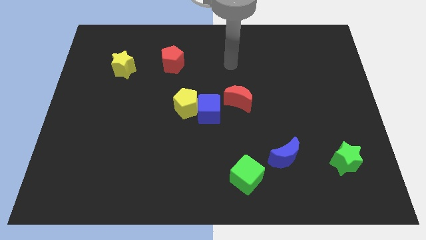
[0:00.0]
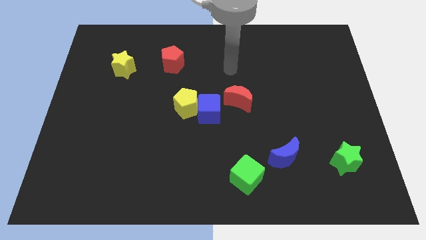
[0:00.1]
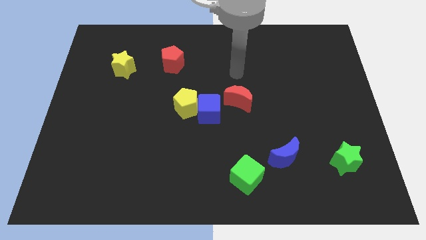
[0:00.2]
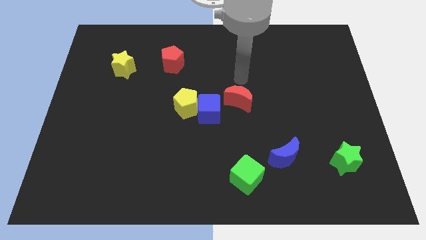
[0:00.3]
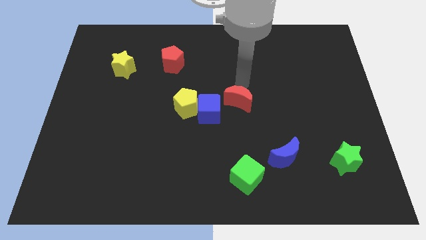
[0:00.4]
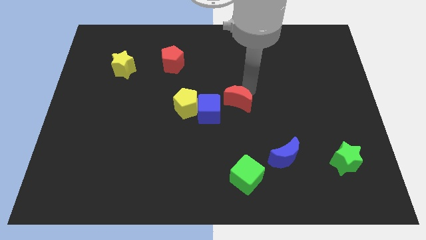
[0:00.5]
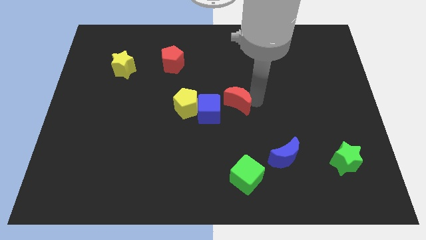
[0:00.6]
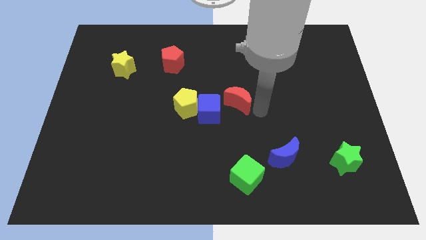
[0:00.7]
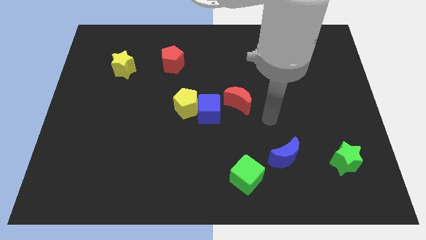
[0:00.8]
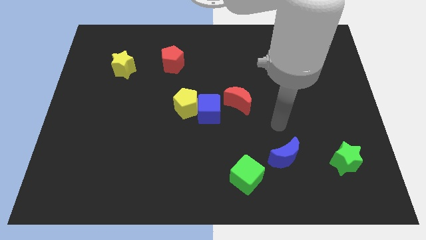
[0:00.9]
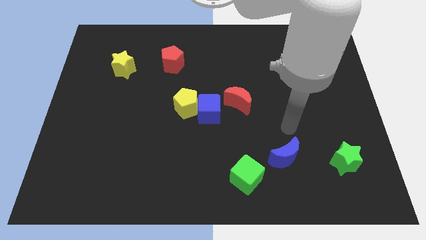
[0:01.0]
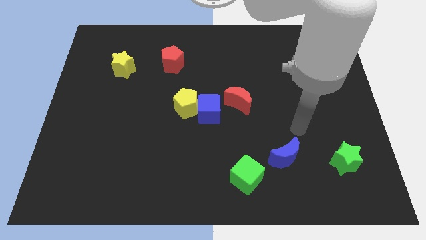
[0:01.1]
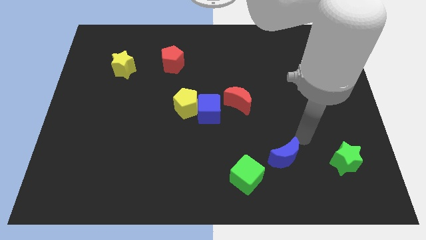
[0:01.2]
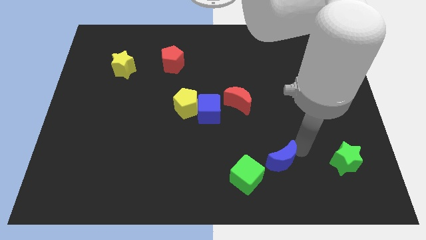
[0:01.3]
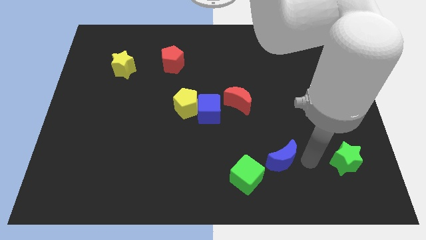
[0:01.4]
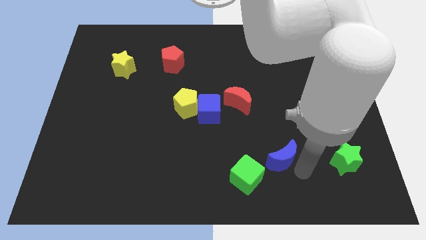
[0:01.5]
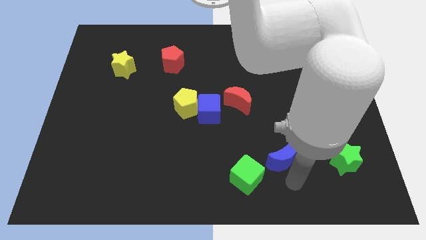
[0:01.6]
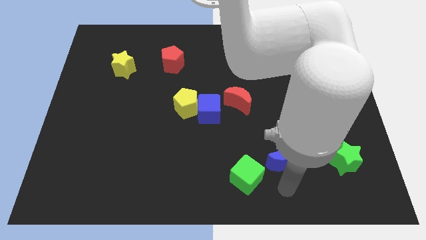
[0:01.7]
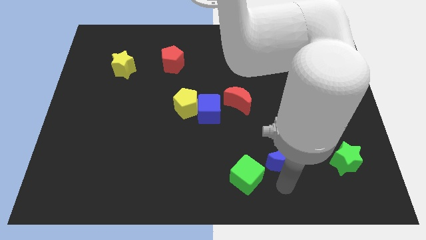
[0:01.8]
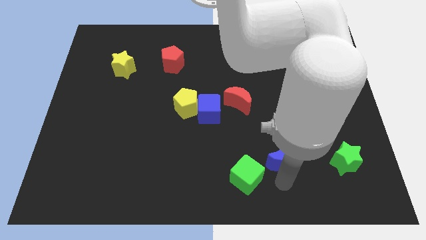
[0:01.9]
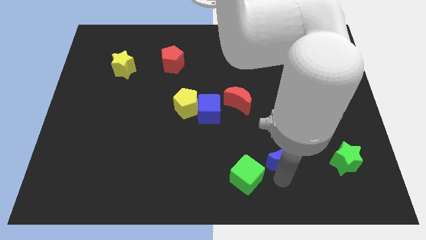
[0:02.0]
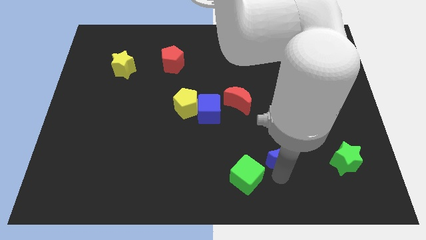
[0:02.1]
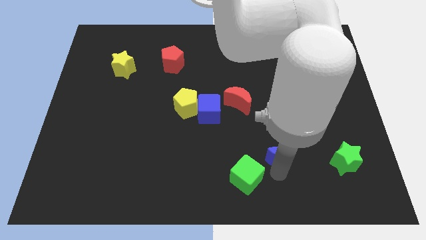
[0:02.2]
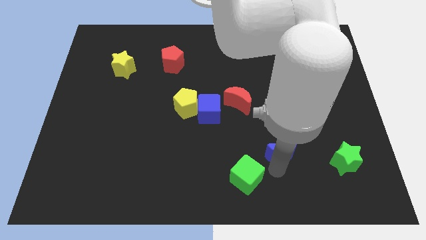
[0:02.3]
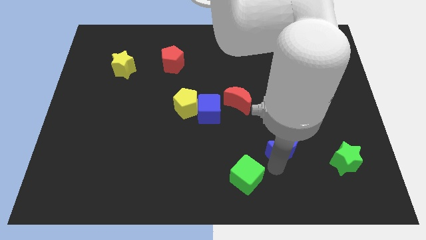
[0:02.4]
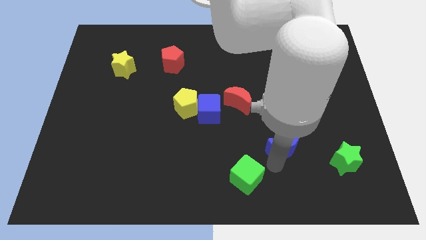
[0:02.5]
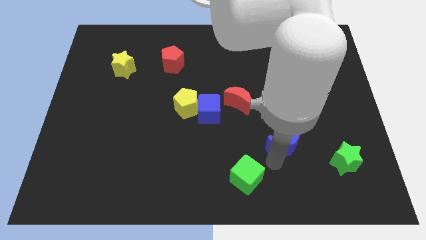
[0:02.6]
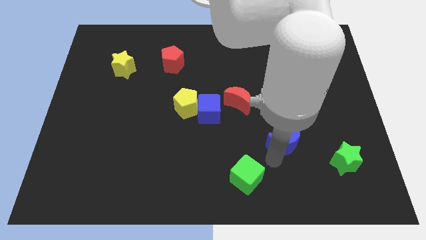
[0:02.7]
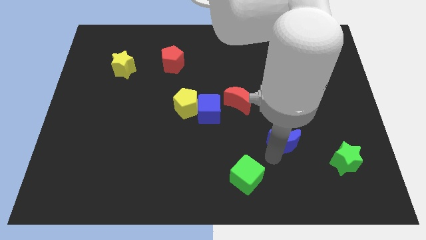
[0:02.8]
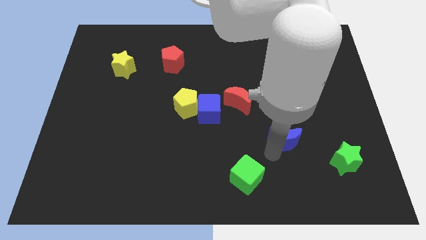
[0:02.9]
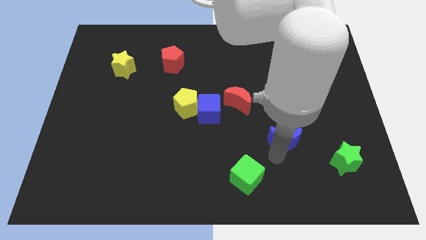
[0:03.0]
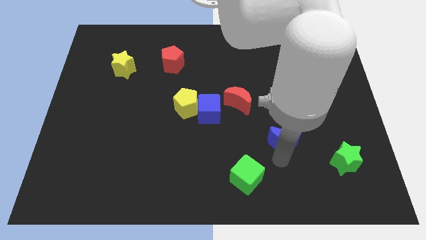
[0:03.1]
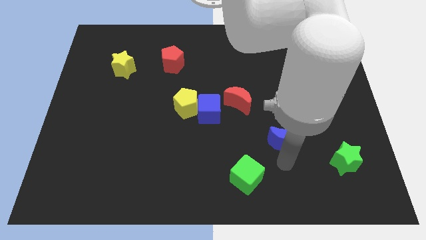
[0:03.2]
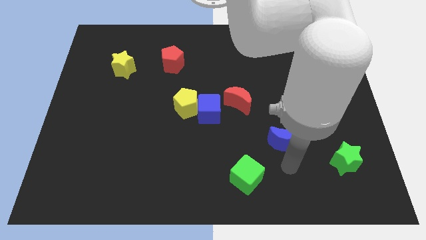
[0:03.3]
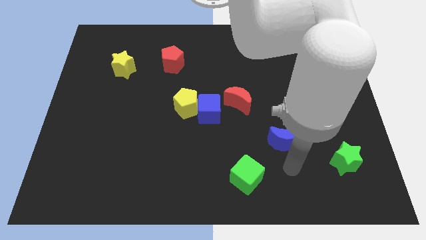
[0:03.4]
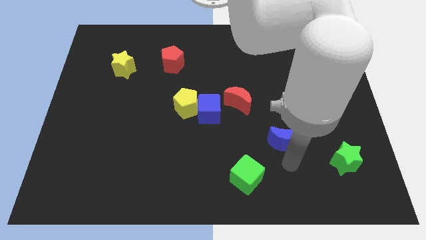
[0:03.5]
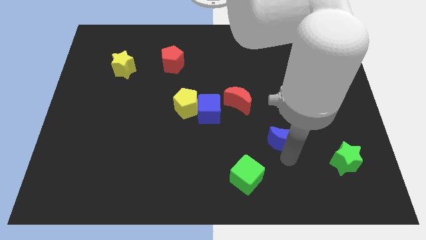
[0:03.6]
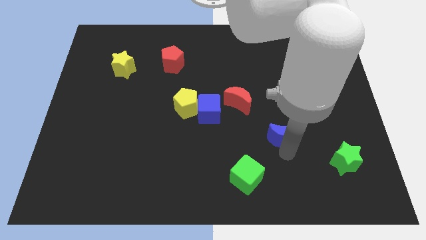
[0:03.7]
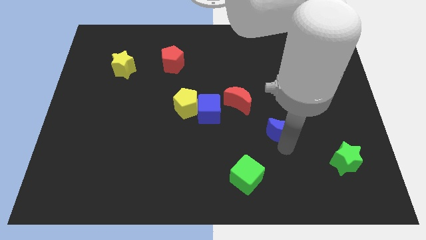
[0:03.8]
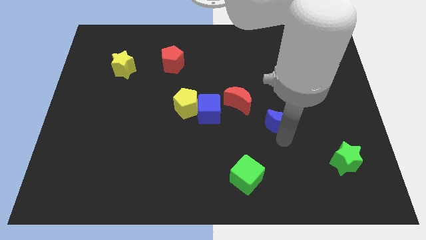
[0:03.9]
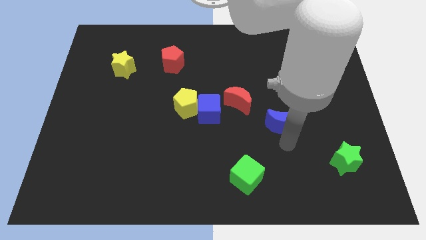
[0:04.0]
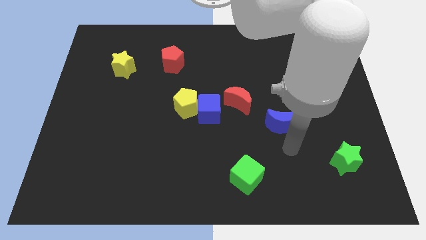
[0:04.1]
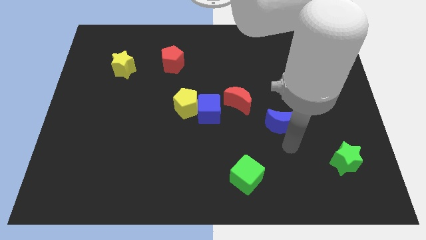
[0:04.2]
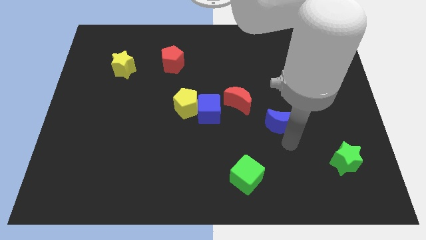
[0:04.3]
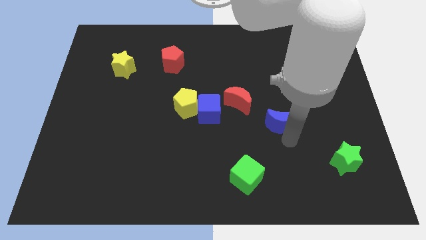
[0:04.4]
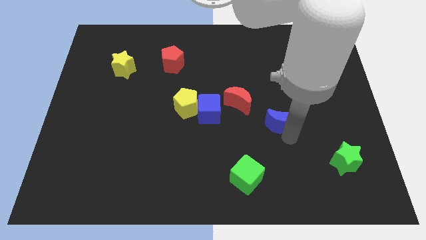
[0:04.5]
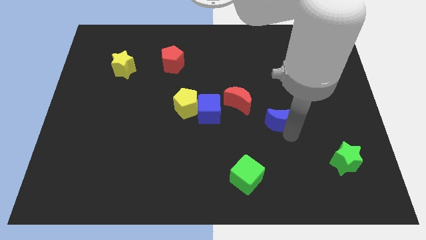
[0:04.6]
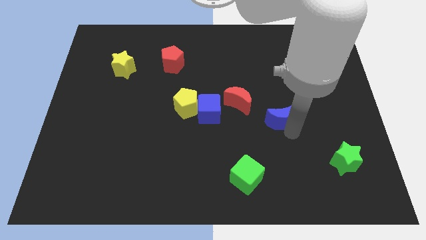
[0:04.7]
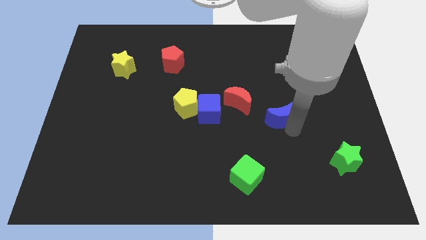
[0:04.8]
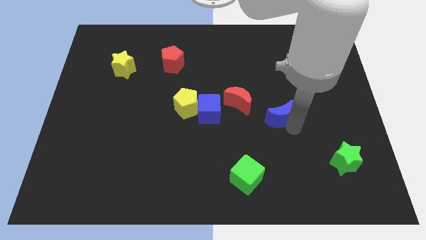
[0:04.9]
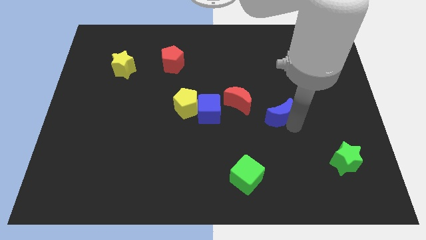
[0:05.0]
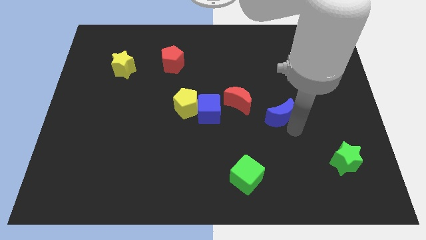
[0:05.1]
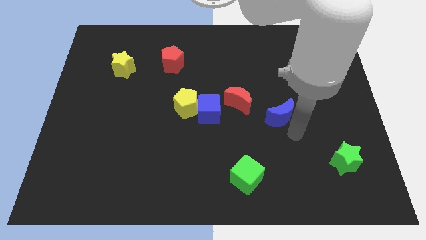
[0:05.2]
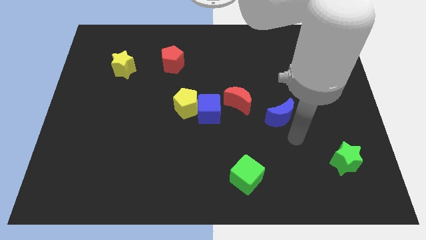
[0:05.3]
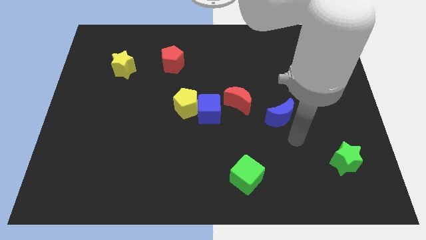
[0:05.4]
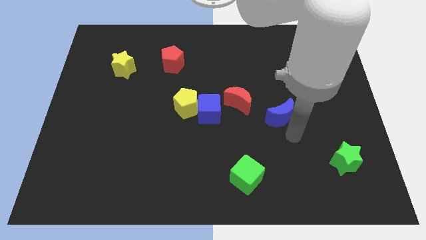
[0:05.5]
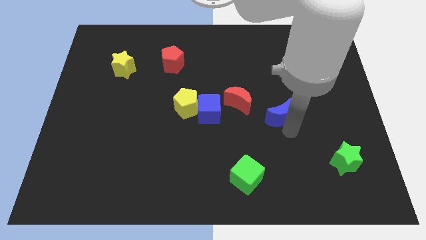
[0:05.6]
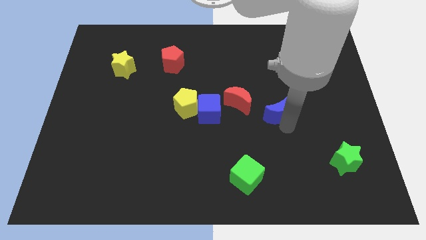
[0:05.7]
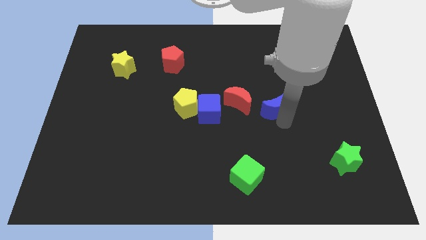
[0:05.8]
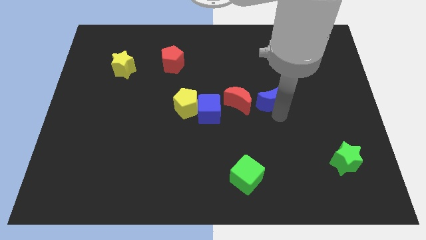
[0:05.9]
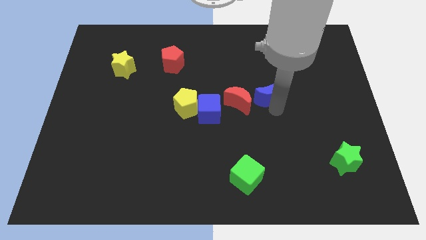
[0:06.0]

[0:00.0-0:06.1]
move the blue moon to the top right of the red moon

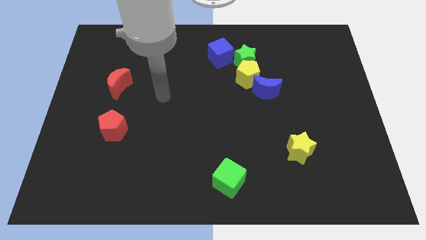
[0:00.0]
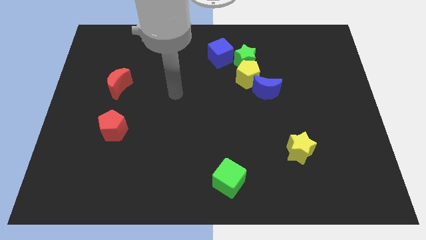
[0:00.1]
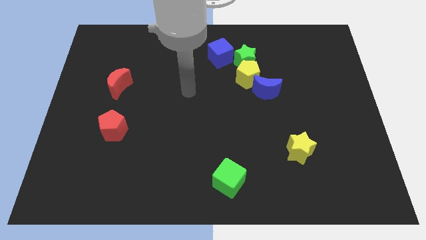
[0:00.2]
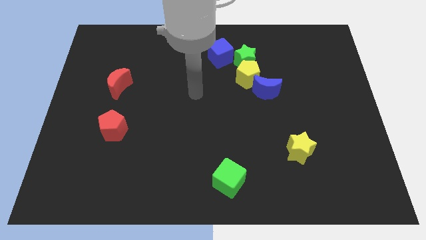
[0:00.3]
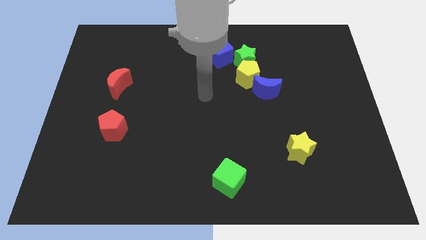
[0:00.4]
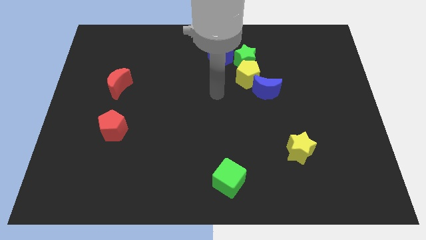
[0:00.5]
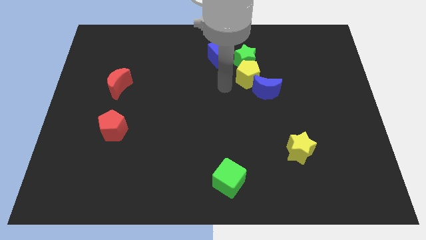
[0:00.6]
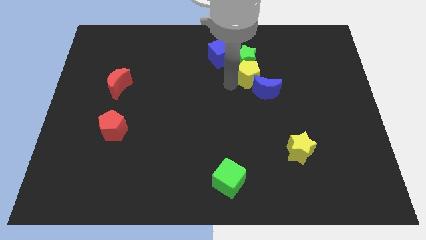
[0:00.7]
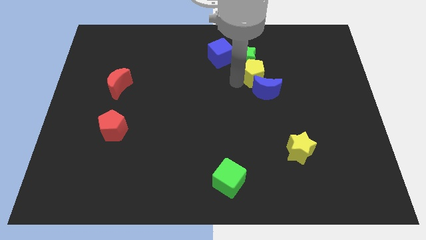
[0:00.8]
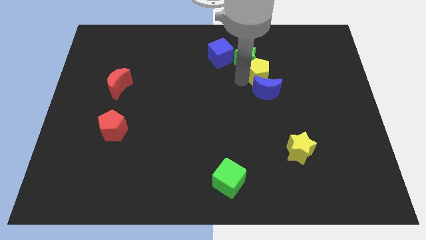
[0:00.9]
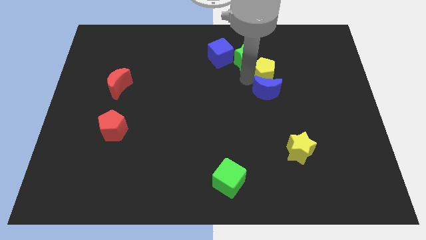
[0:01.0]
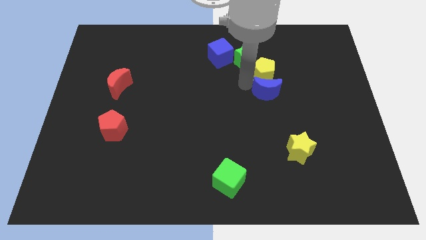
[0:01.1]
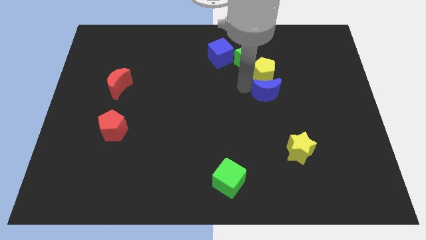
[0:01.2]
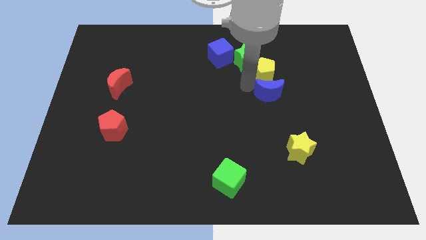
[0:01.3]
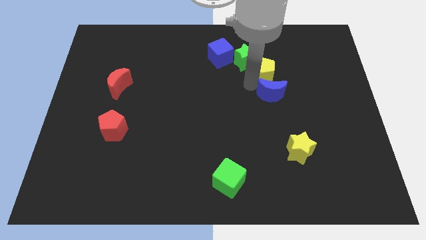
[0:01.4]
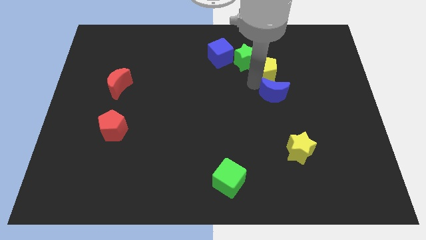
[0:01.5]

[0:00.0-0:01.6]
move the yellow pentagon to the right of the green star
